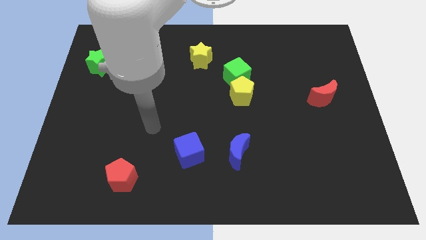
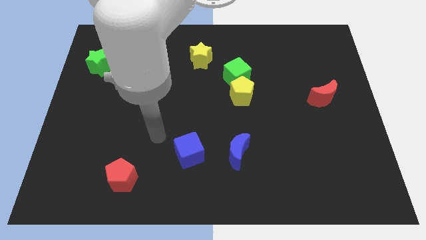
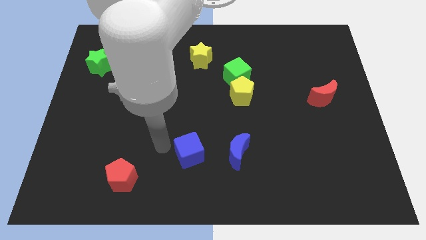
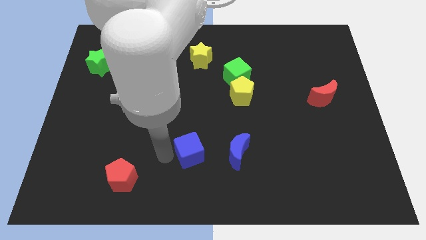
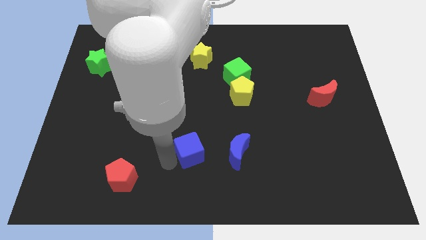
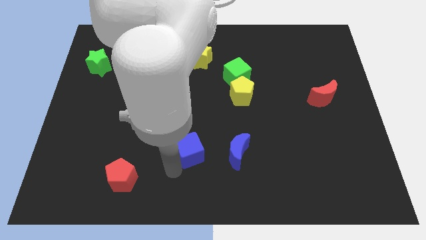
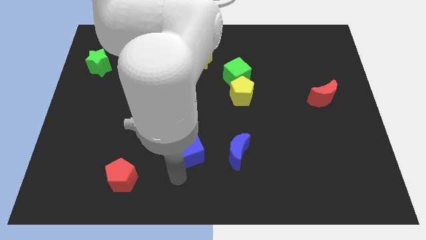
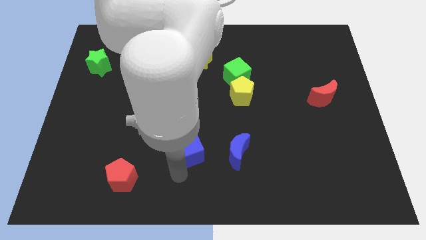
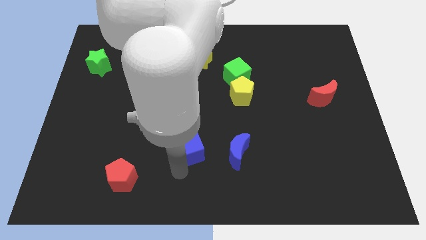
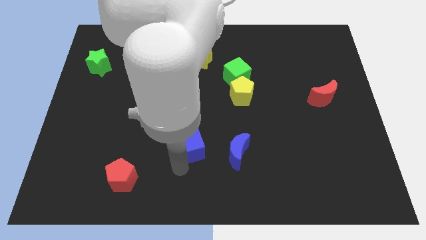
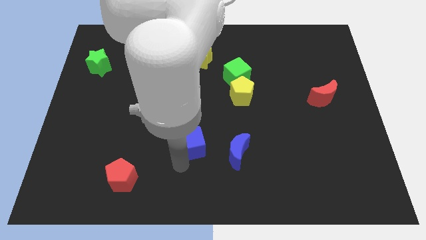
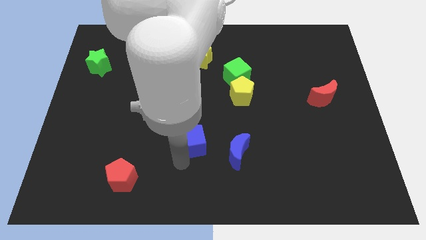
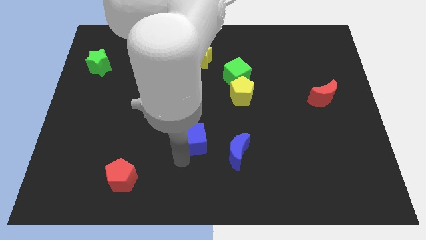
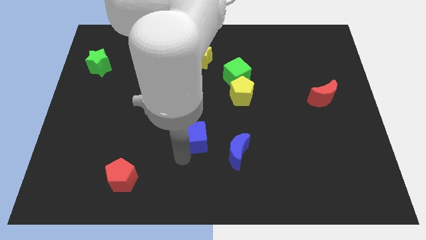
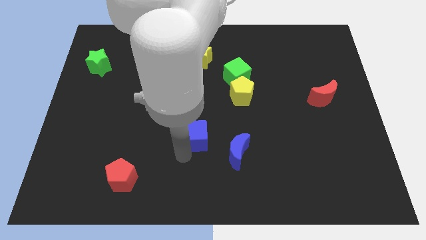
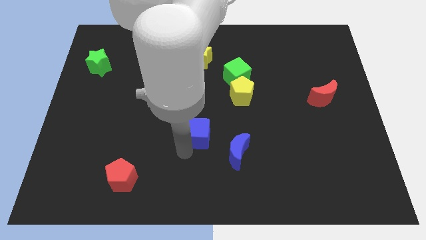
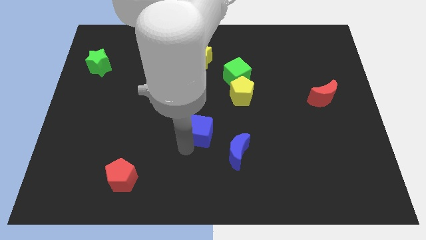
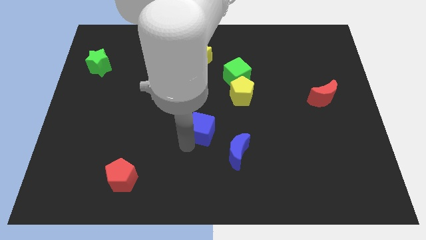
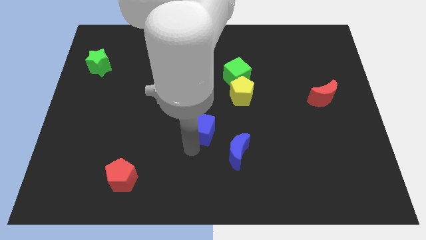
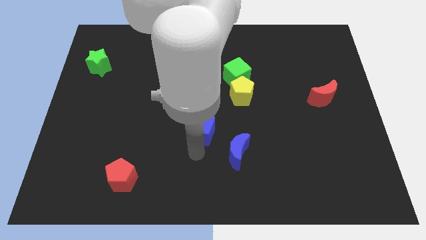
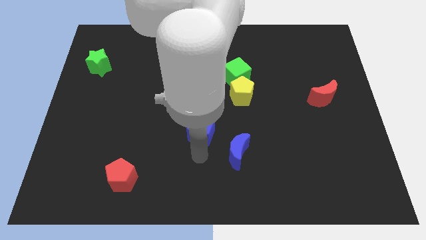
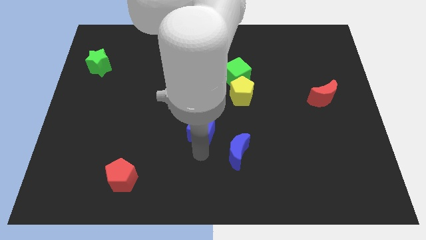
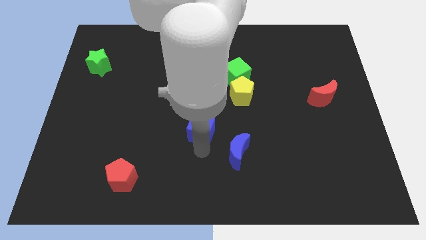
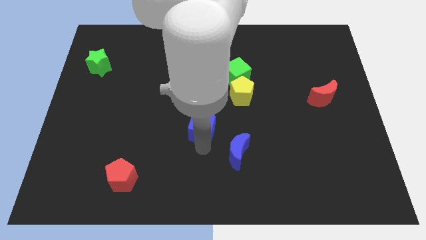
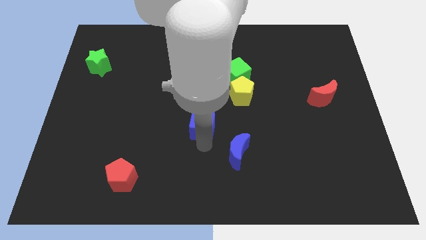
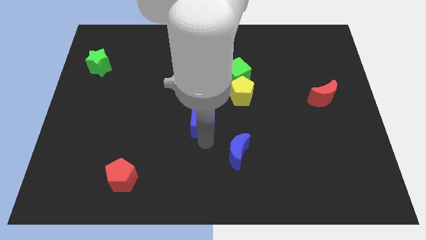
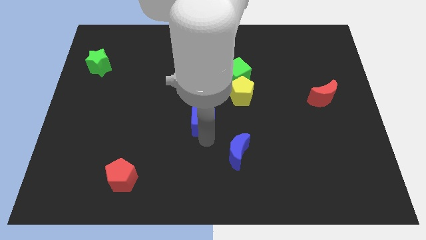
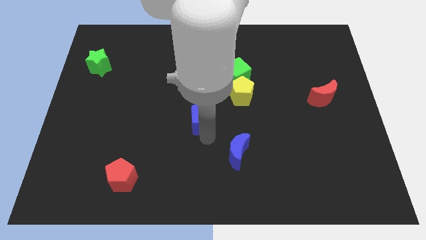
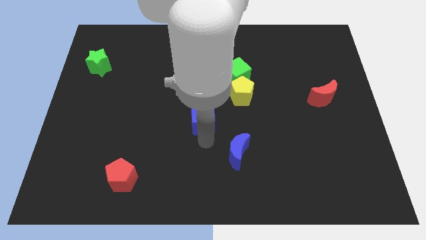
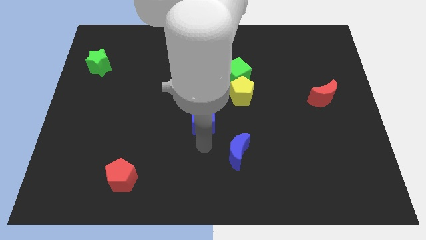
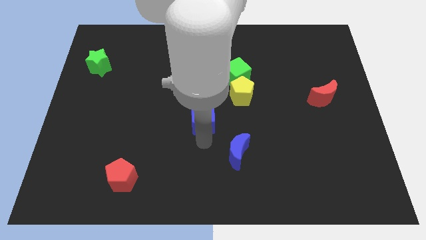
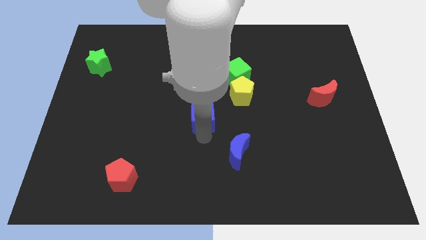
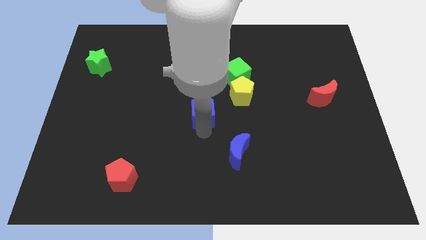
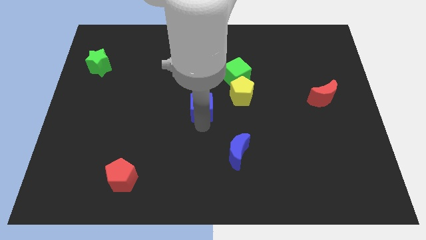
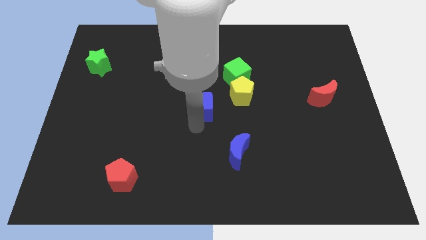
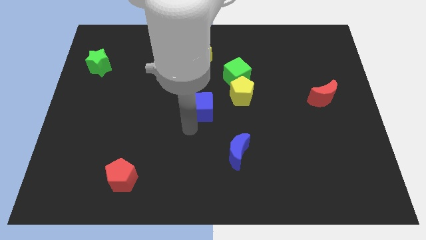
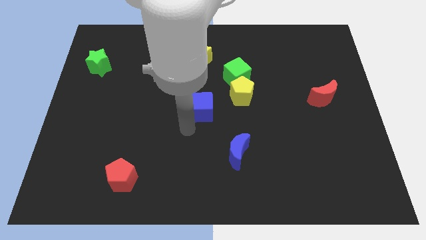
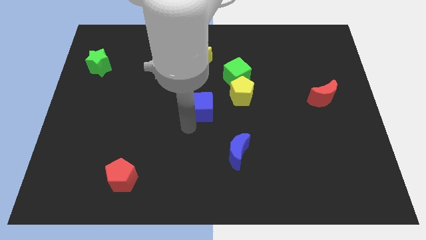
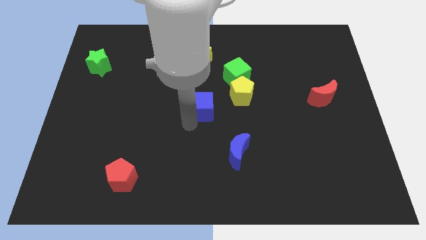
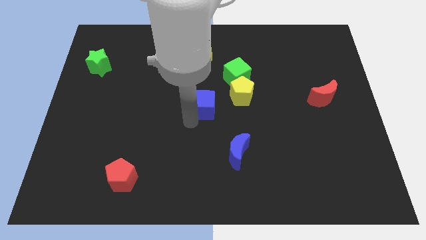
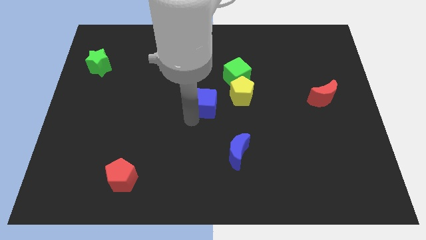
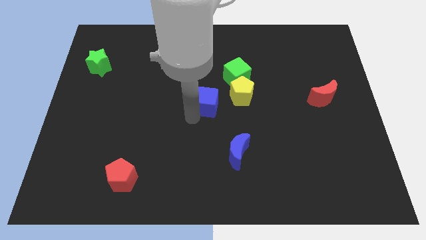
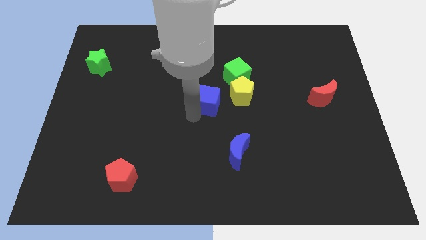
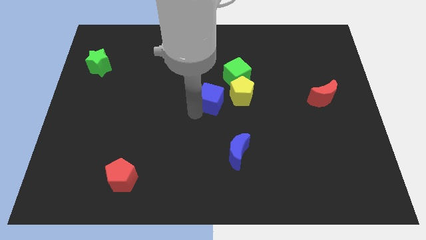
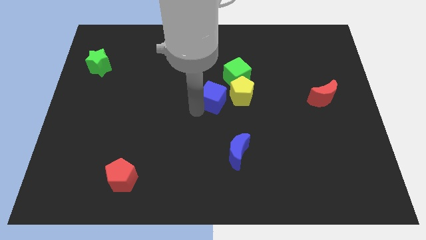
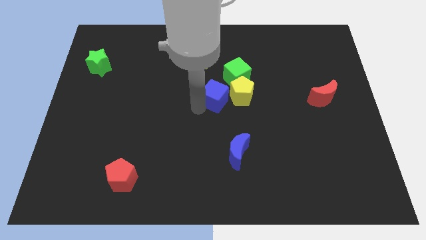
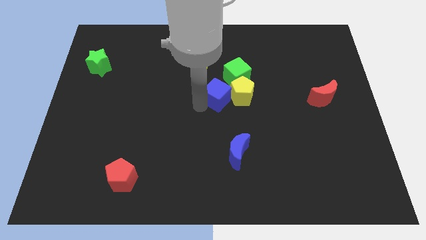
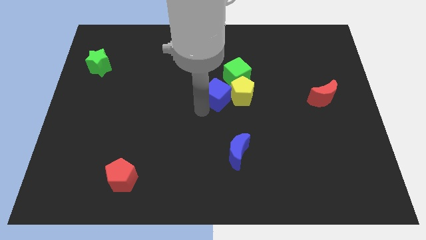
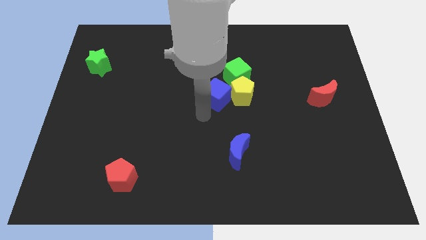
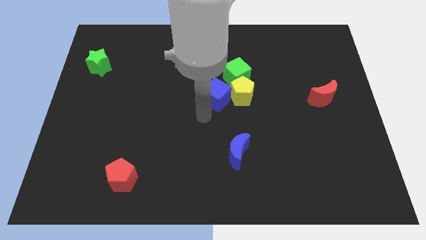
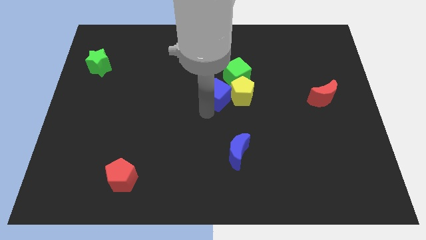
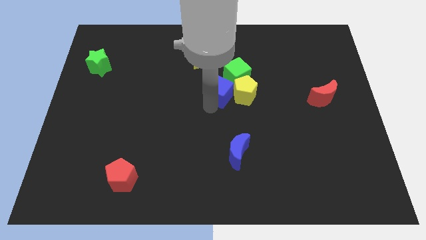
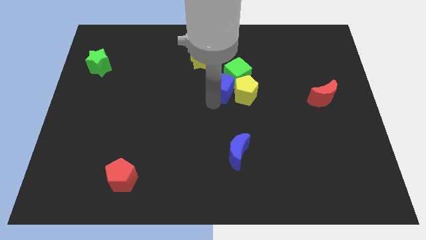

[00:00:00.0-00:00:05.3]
put the blue cube towards the green cube

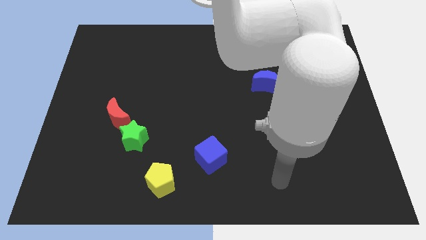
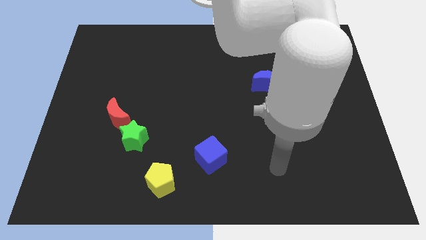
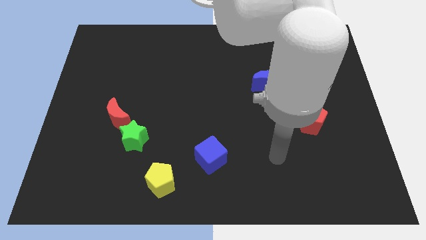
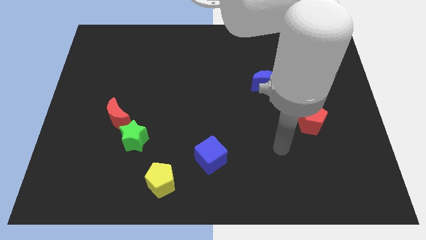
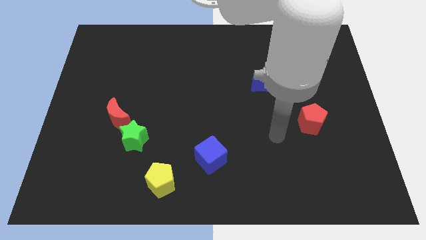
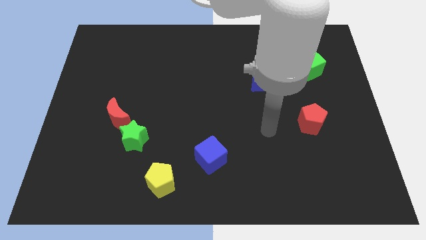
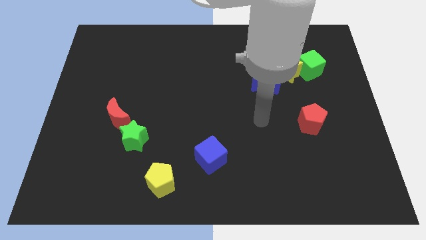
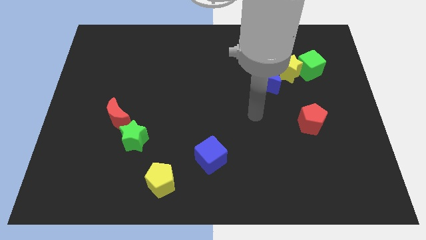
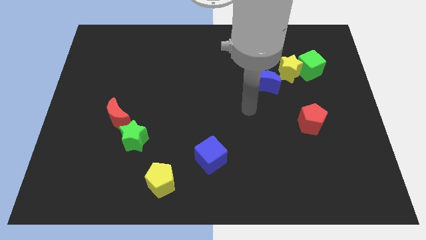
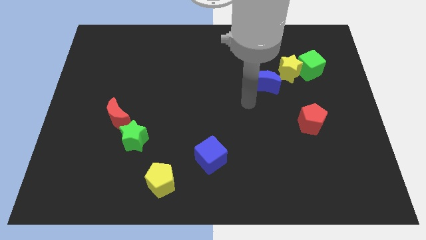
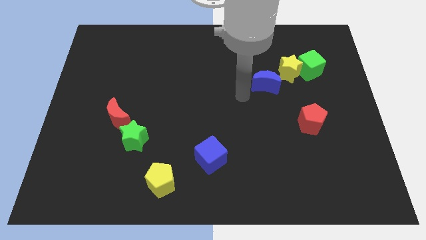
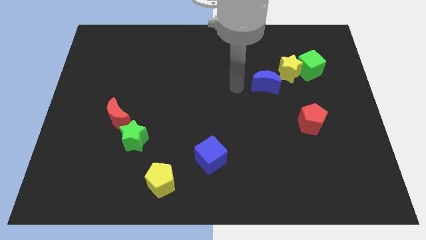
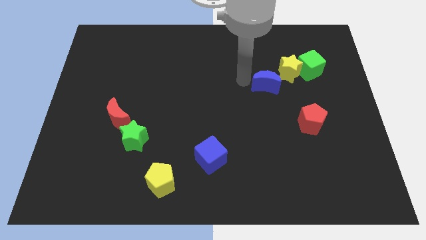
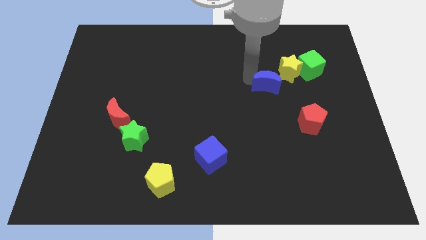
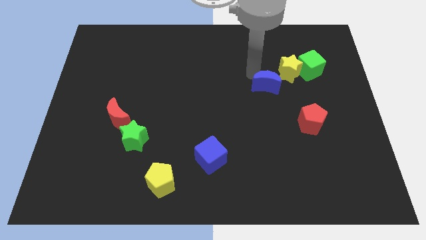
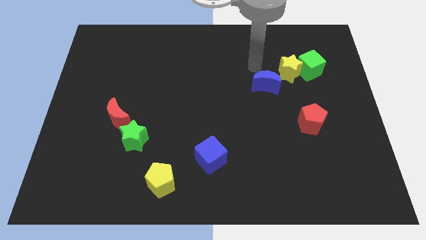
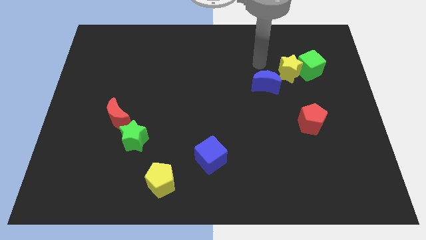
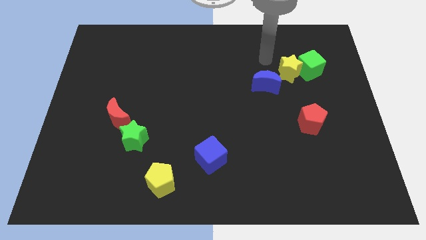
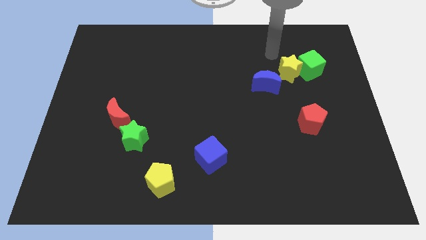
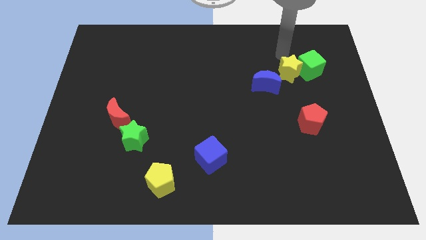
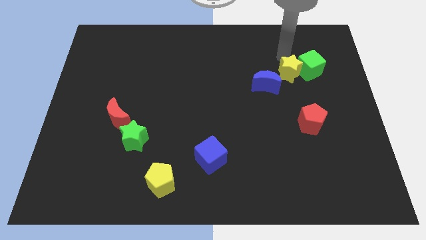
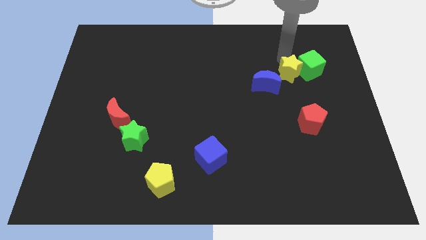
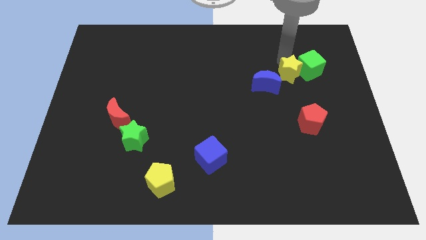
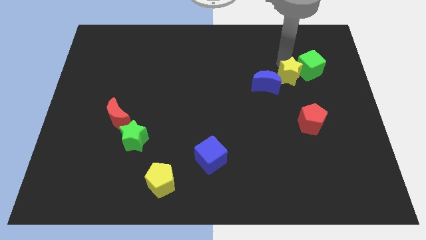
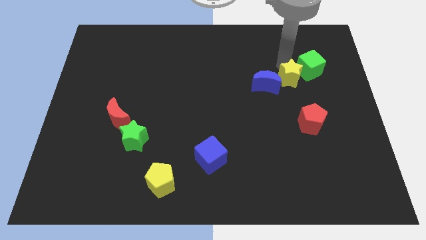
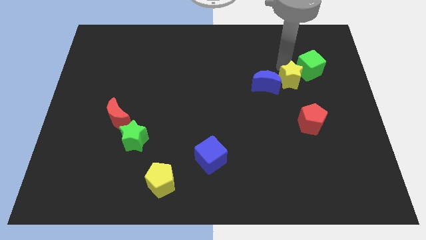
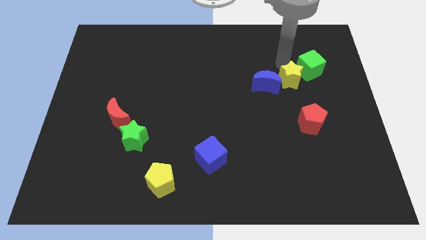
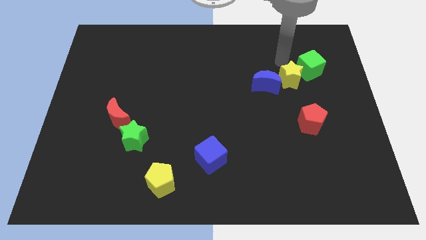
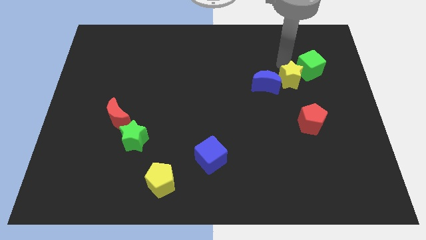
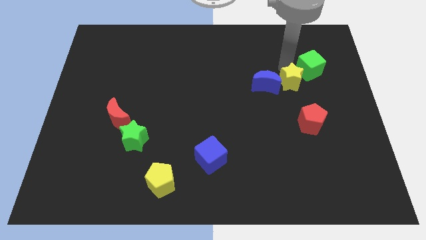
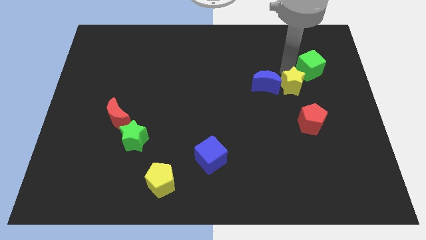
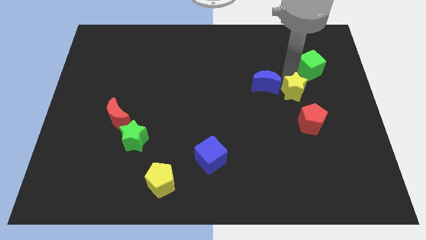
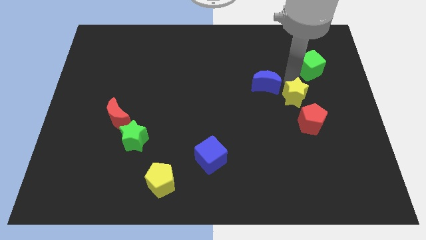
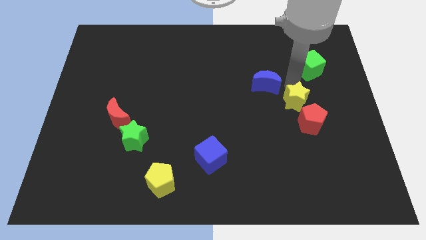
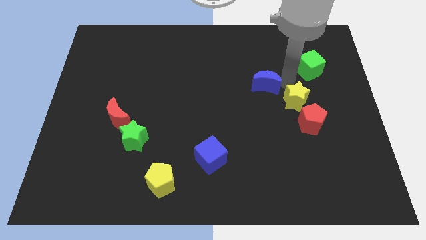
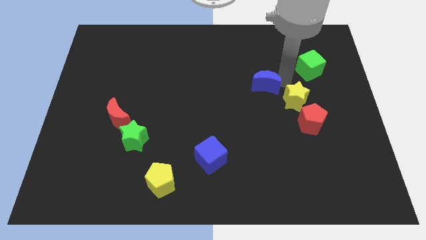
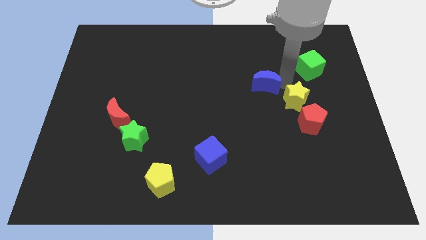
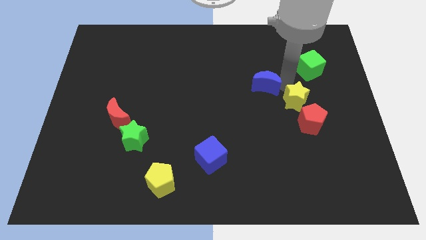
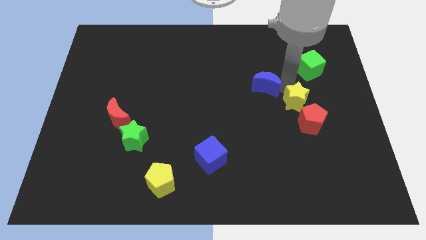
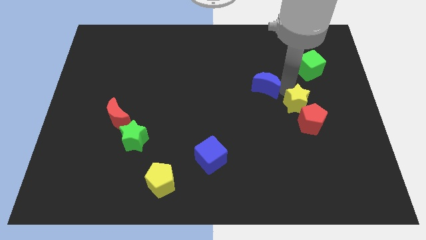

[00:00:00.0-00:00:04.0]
move the yellow star to the red pentagon
